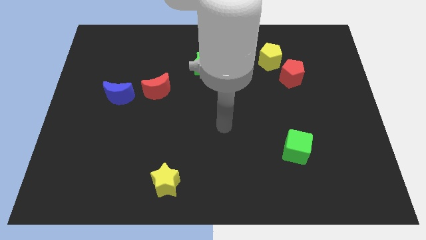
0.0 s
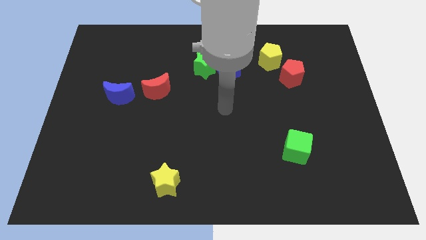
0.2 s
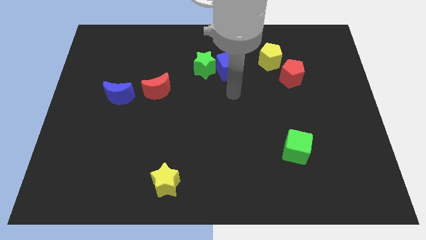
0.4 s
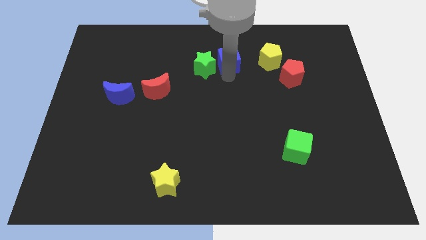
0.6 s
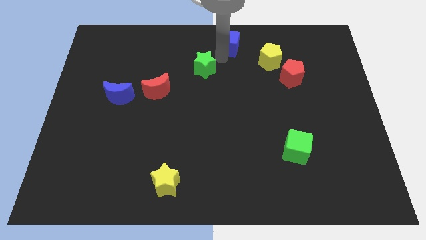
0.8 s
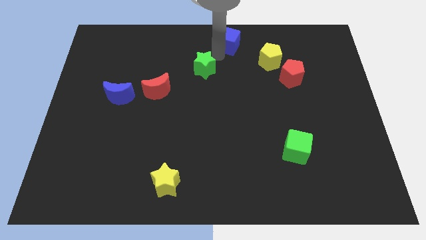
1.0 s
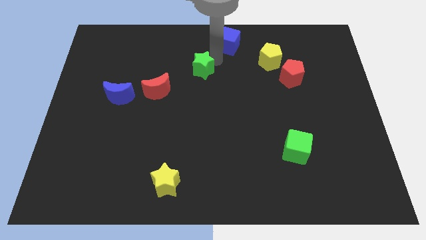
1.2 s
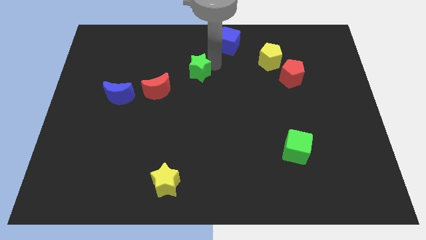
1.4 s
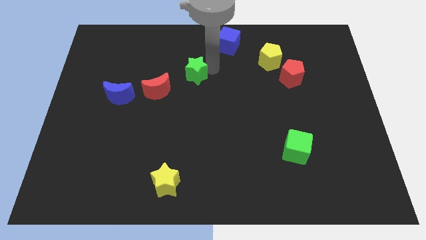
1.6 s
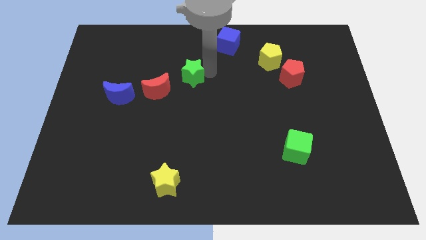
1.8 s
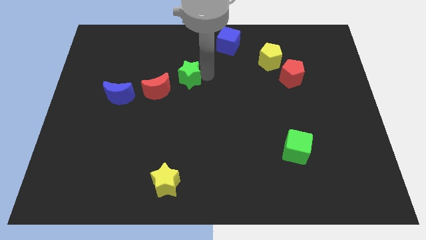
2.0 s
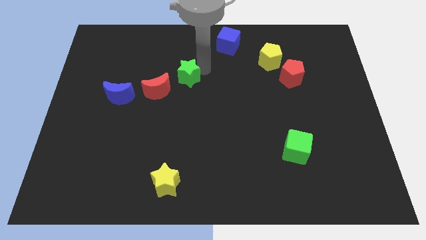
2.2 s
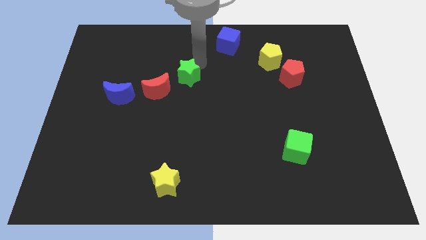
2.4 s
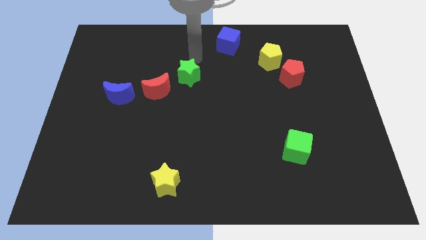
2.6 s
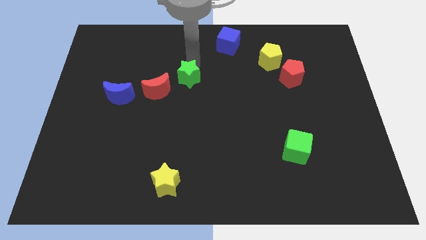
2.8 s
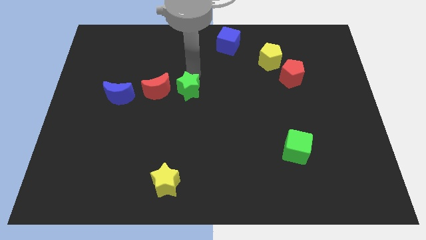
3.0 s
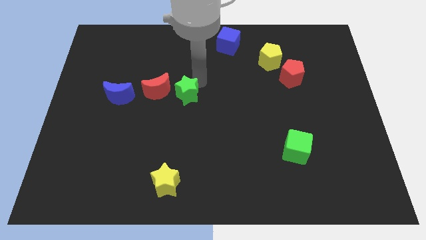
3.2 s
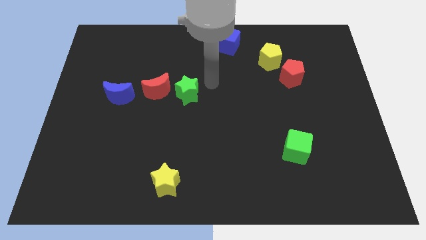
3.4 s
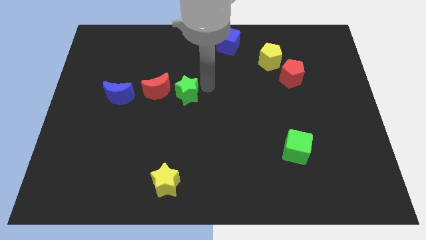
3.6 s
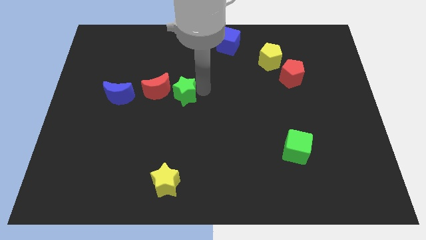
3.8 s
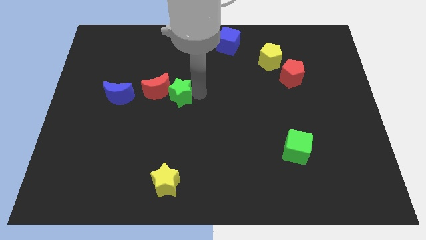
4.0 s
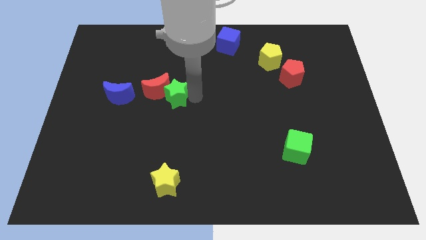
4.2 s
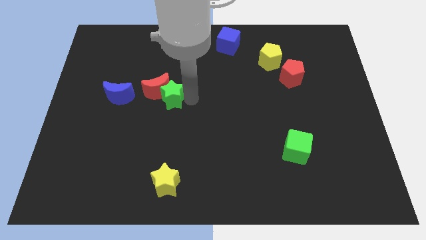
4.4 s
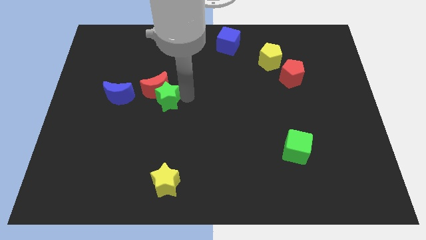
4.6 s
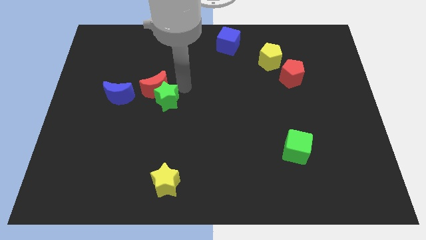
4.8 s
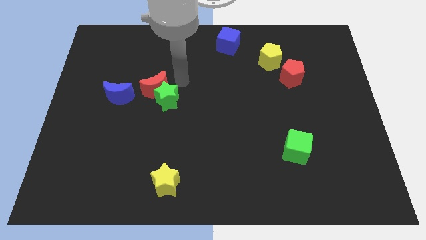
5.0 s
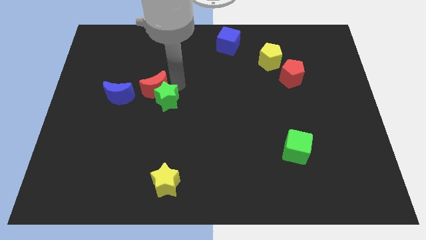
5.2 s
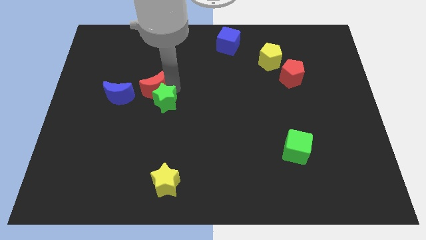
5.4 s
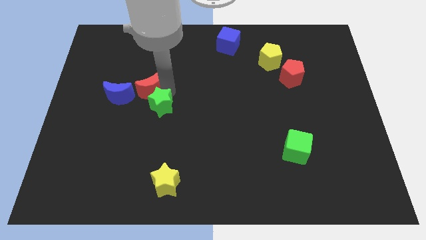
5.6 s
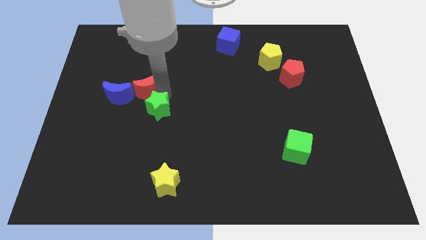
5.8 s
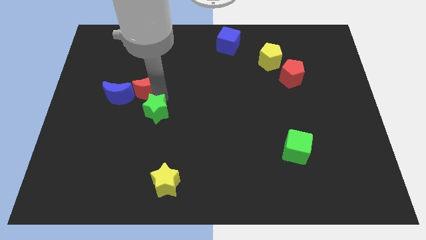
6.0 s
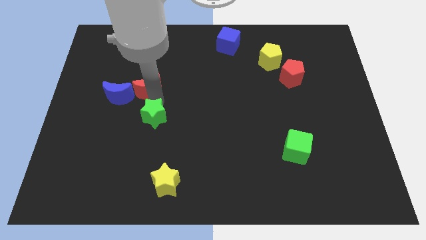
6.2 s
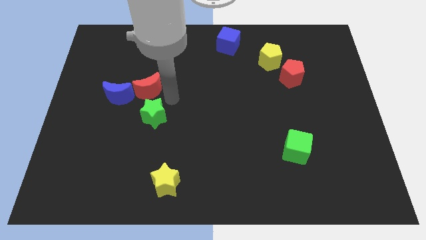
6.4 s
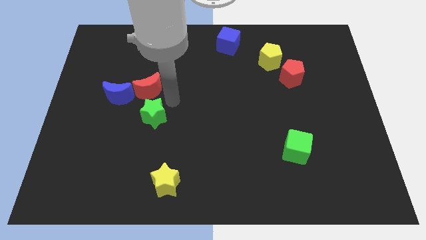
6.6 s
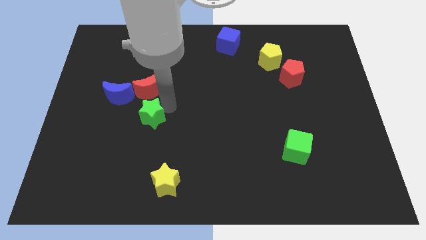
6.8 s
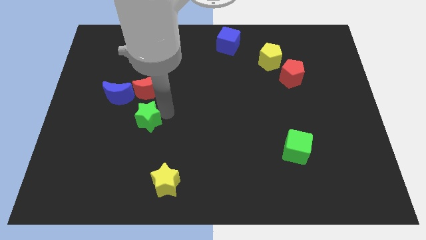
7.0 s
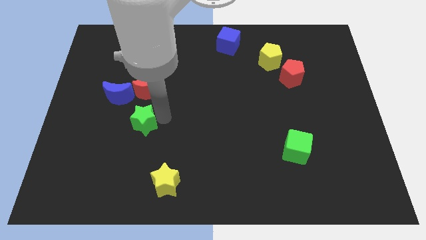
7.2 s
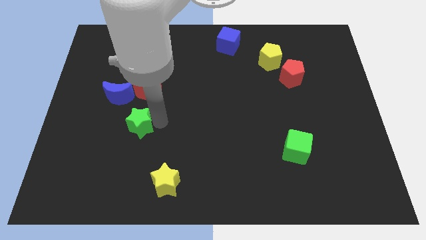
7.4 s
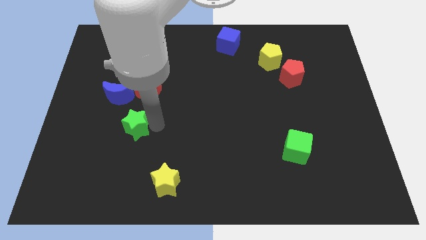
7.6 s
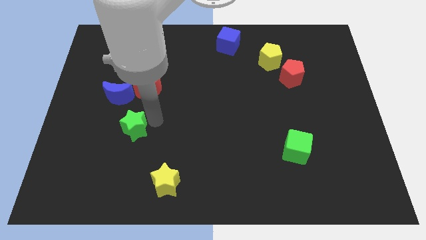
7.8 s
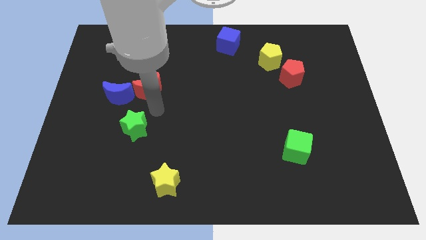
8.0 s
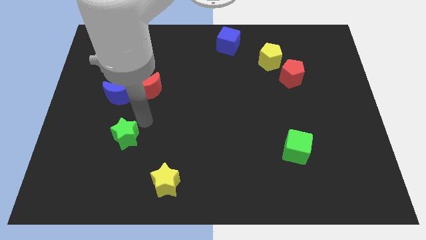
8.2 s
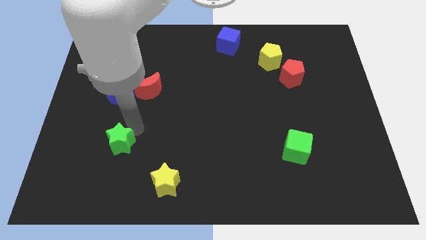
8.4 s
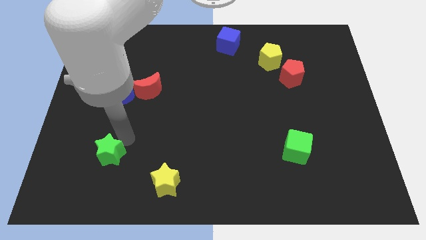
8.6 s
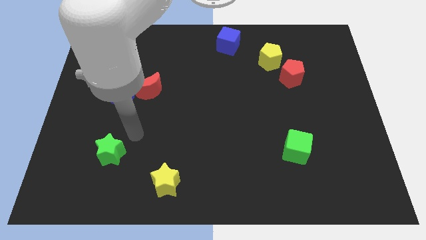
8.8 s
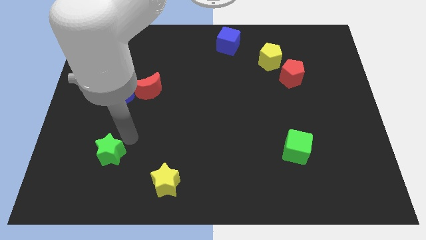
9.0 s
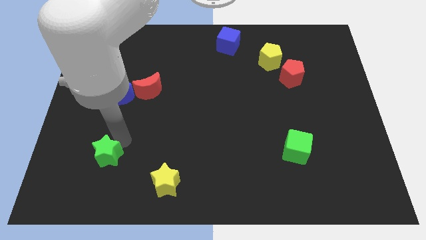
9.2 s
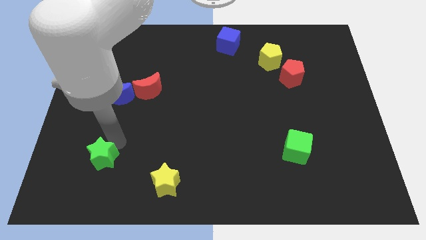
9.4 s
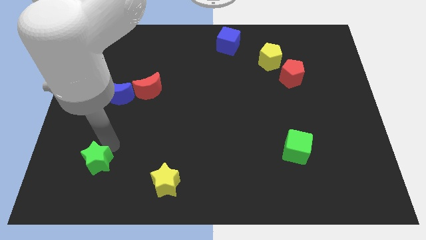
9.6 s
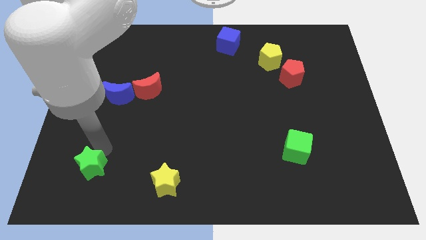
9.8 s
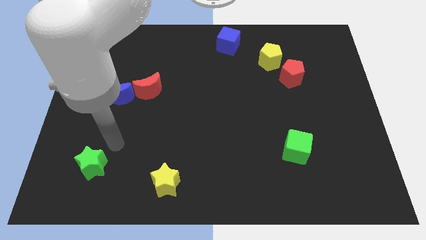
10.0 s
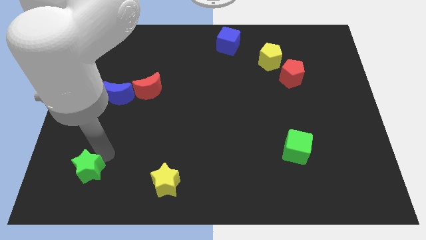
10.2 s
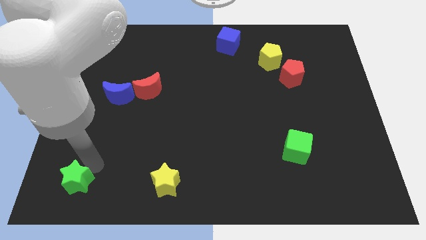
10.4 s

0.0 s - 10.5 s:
slide the green star to the bottom left corner

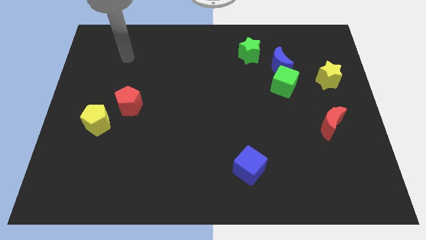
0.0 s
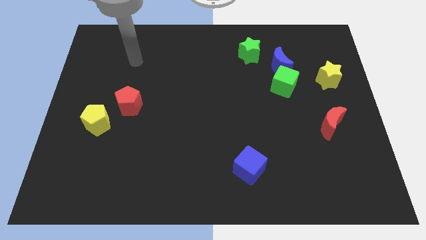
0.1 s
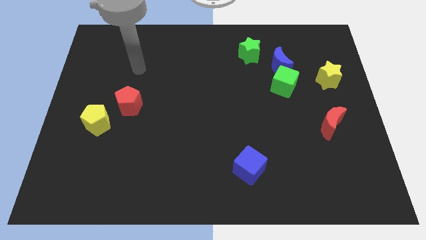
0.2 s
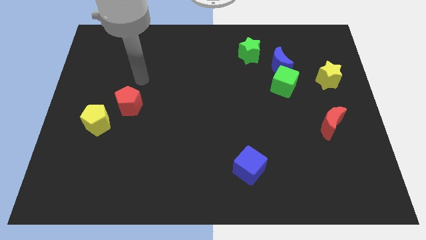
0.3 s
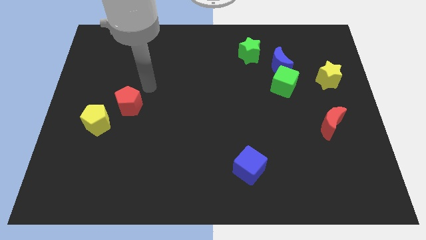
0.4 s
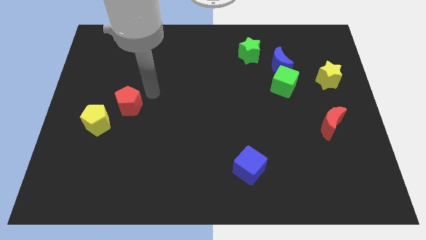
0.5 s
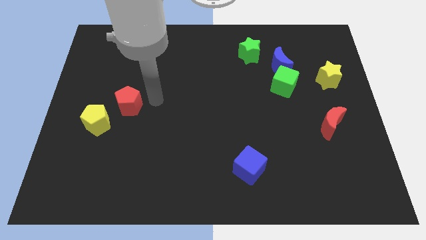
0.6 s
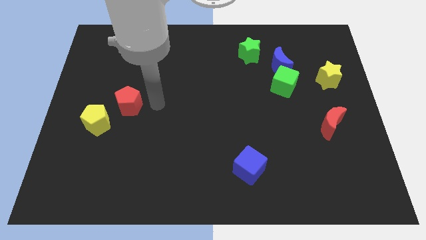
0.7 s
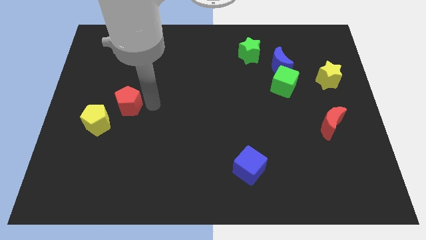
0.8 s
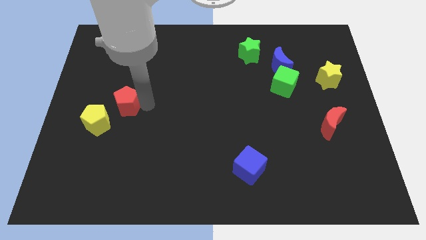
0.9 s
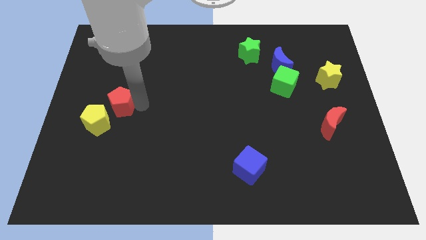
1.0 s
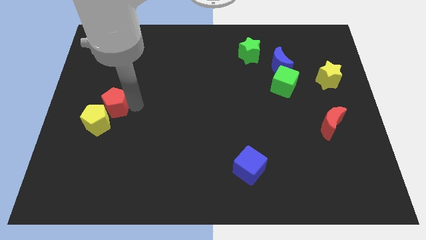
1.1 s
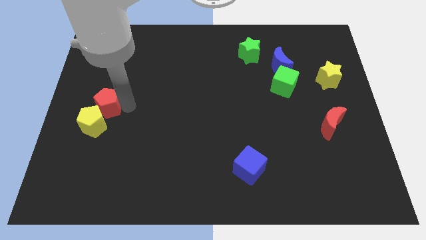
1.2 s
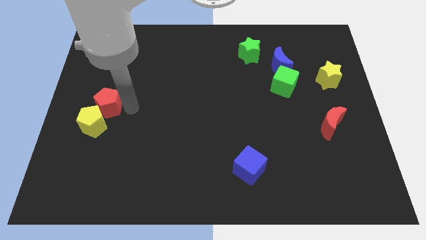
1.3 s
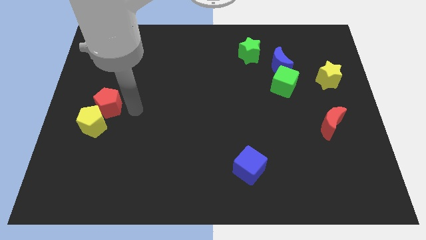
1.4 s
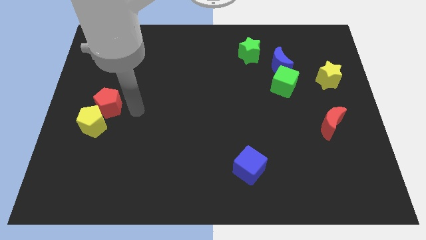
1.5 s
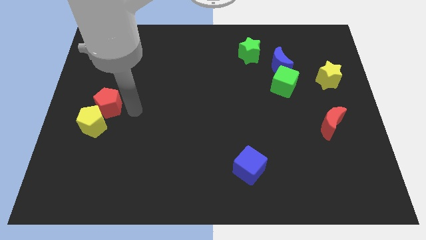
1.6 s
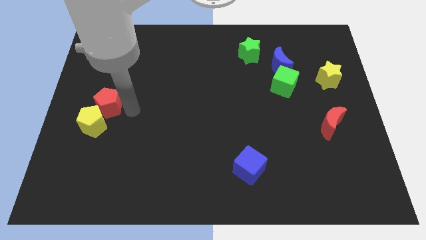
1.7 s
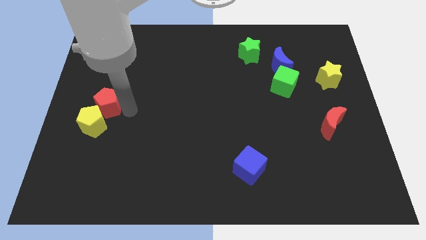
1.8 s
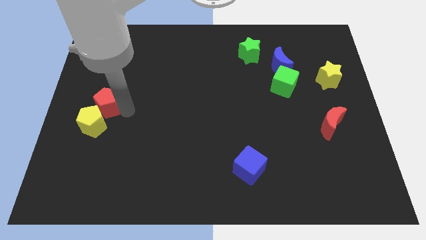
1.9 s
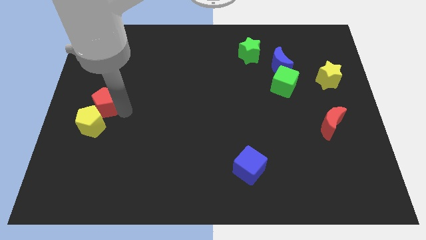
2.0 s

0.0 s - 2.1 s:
move the red pentagon to the left side
